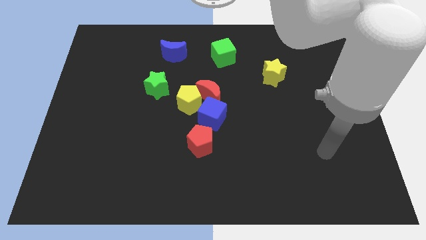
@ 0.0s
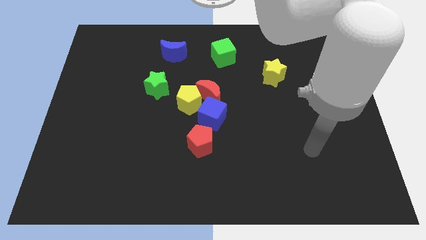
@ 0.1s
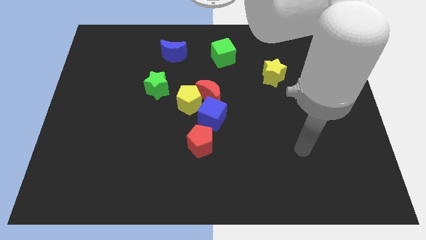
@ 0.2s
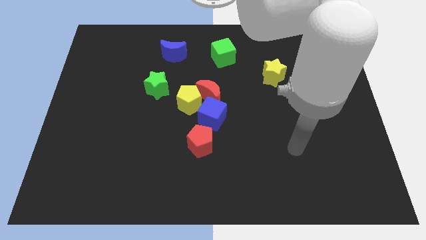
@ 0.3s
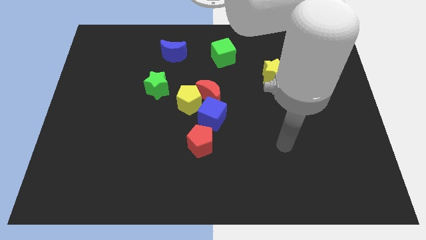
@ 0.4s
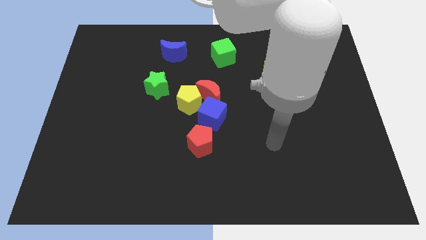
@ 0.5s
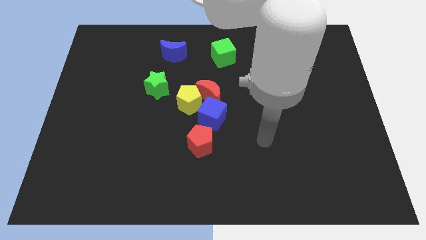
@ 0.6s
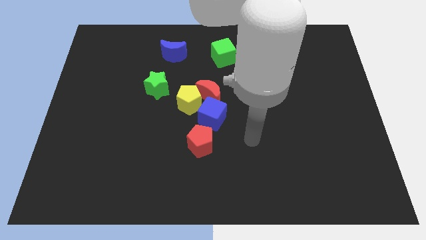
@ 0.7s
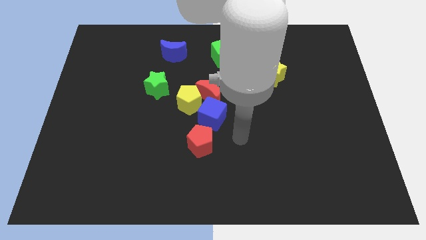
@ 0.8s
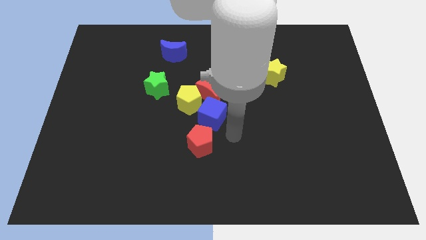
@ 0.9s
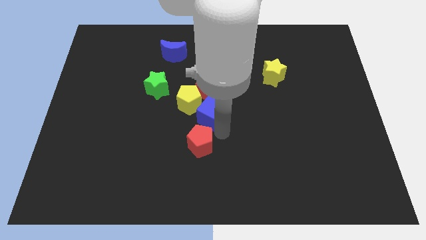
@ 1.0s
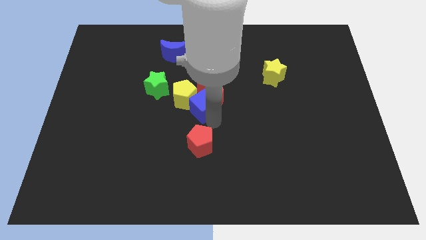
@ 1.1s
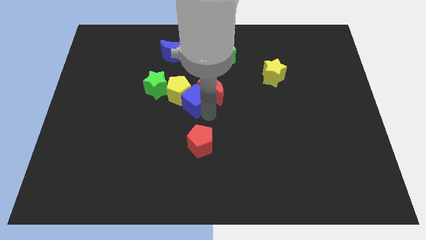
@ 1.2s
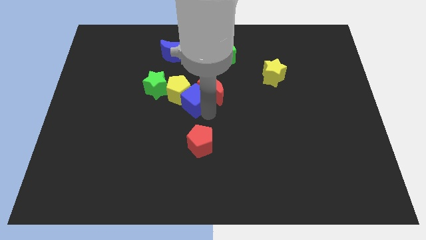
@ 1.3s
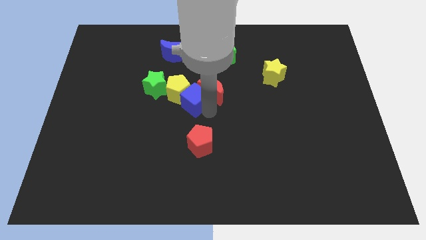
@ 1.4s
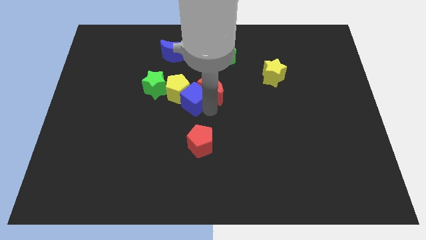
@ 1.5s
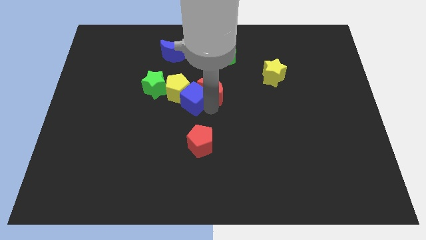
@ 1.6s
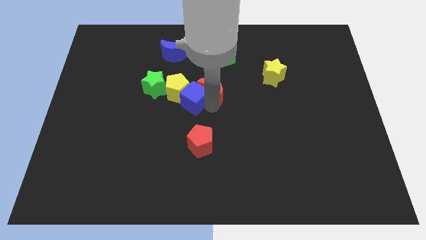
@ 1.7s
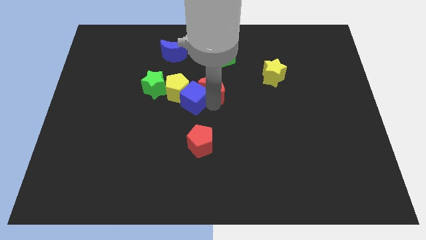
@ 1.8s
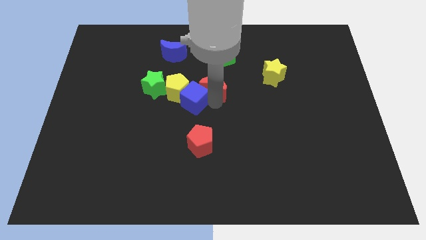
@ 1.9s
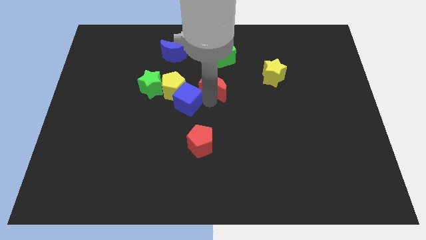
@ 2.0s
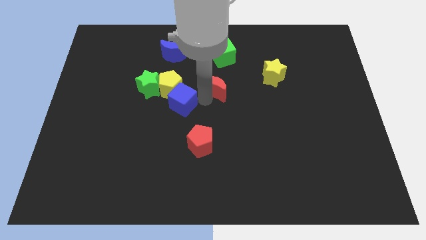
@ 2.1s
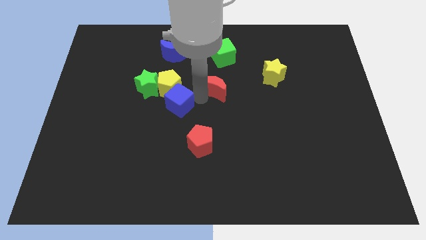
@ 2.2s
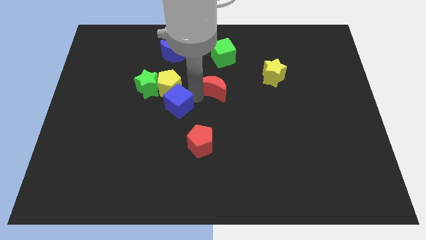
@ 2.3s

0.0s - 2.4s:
separate the red moon from the yellow pentagon and blue cube

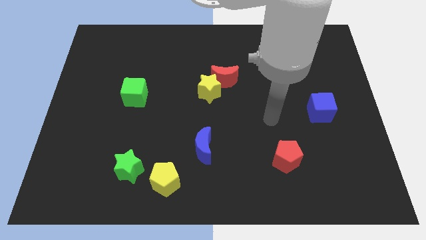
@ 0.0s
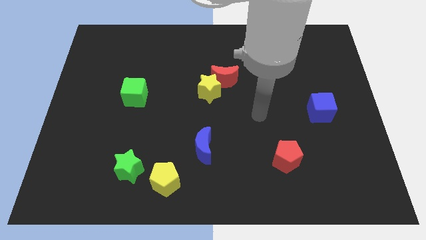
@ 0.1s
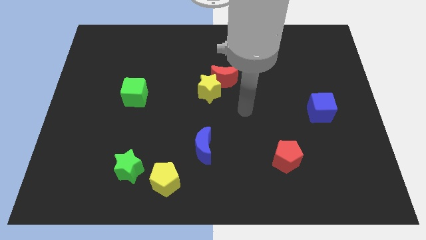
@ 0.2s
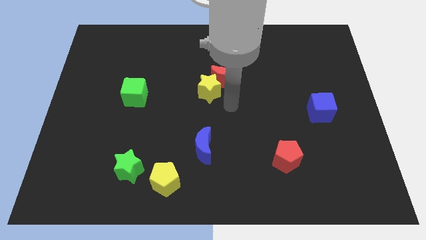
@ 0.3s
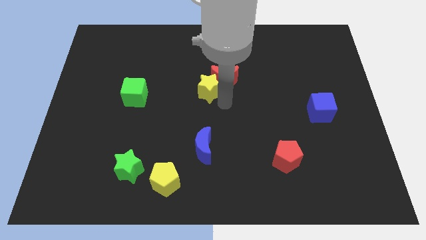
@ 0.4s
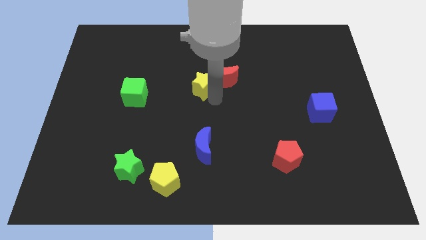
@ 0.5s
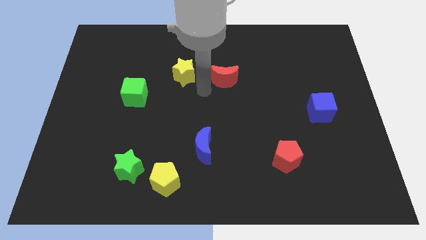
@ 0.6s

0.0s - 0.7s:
separate the red moon from the yellow star

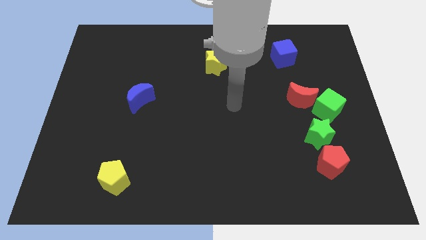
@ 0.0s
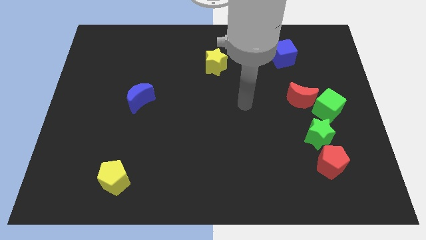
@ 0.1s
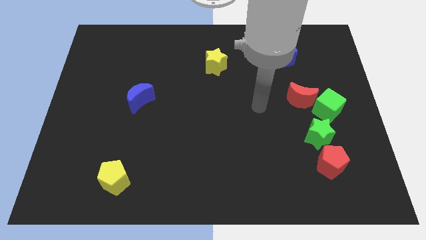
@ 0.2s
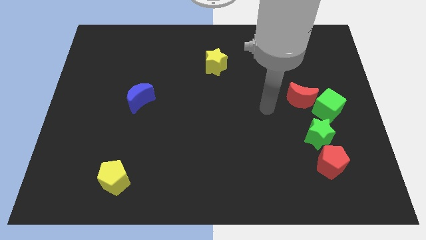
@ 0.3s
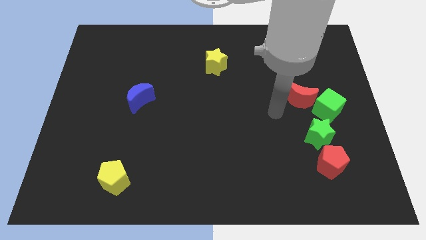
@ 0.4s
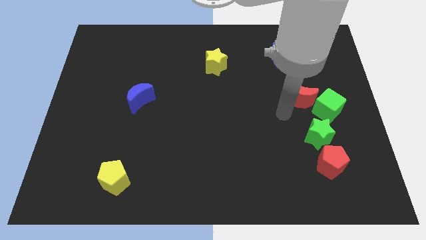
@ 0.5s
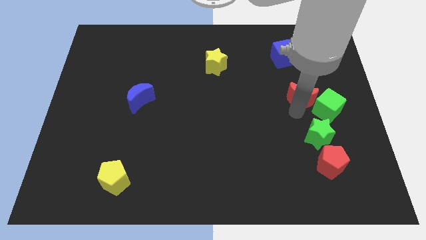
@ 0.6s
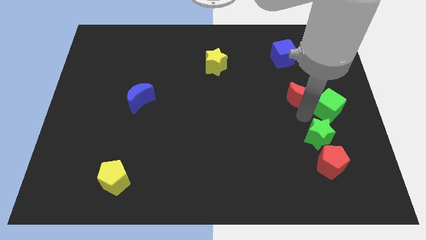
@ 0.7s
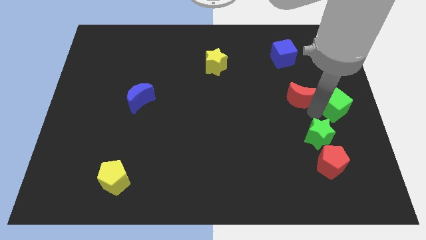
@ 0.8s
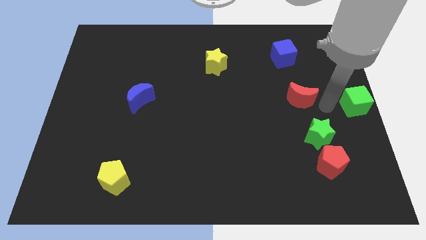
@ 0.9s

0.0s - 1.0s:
pull the red moon apart from the green cube

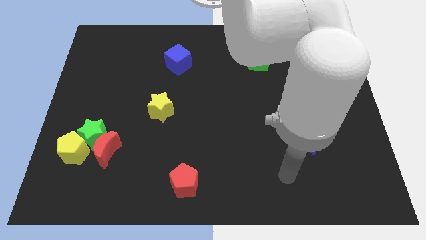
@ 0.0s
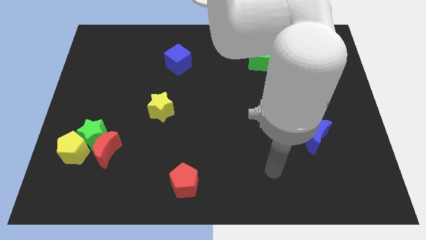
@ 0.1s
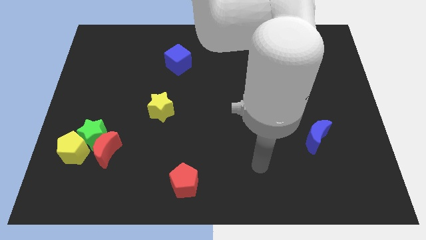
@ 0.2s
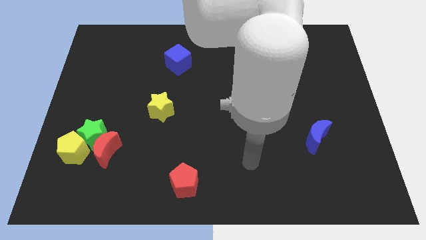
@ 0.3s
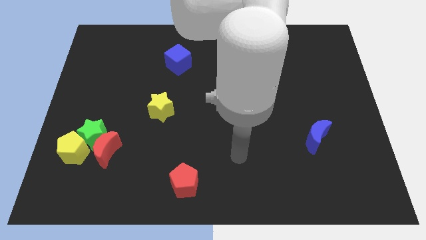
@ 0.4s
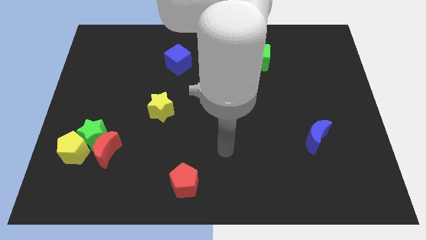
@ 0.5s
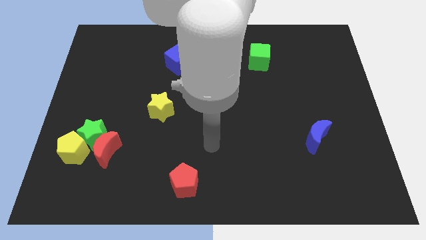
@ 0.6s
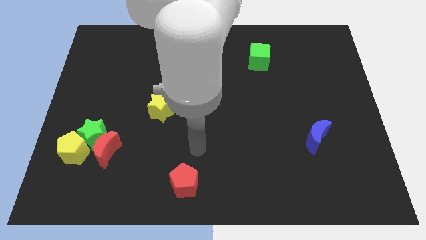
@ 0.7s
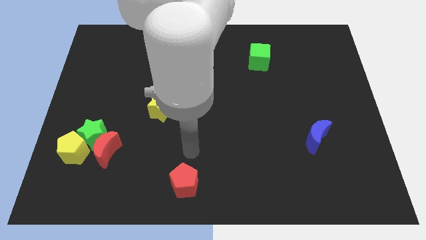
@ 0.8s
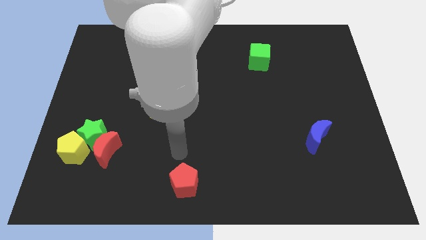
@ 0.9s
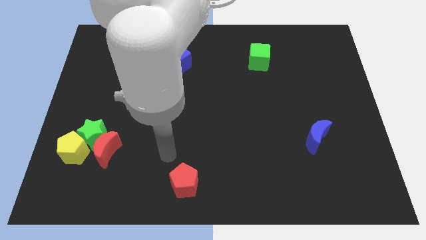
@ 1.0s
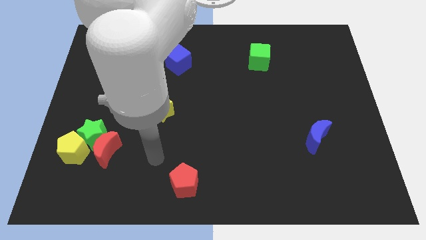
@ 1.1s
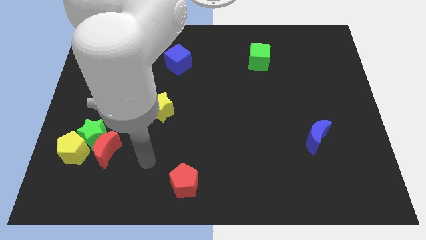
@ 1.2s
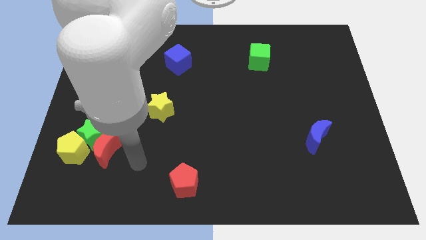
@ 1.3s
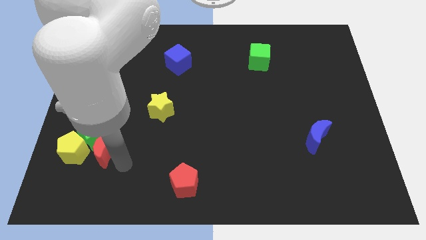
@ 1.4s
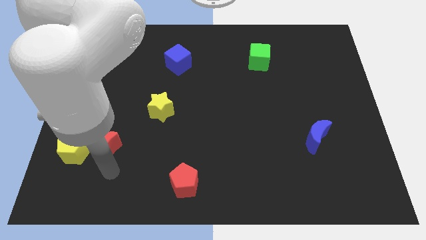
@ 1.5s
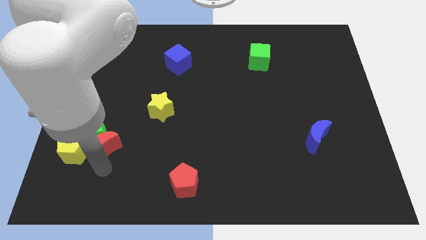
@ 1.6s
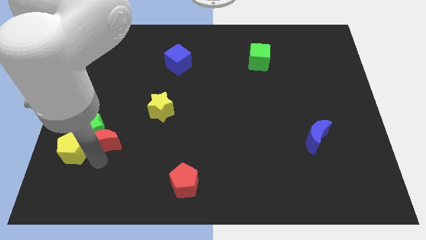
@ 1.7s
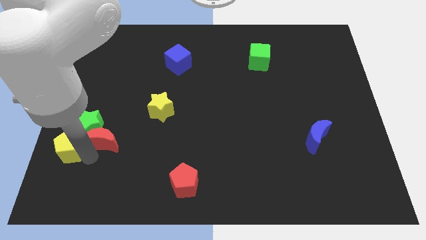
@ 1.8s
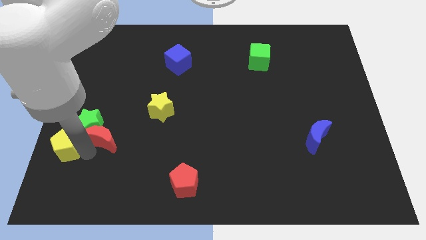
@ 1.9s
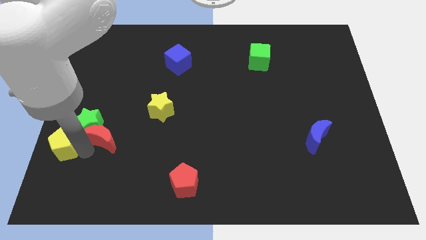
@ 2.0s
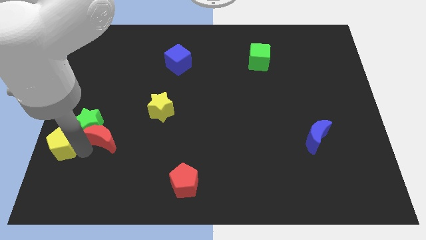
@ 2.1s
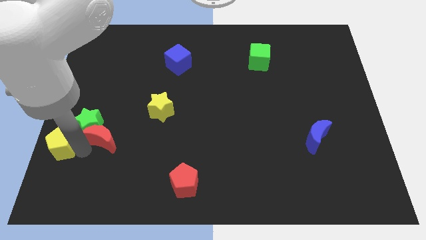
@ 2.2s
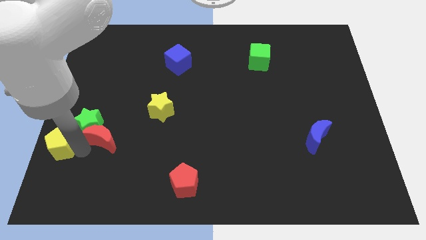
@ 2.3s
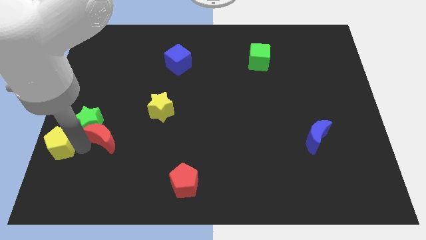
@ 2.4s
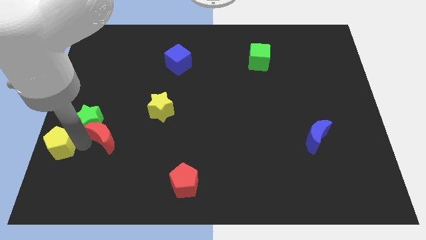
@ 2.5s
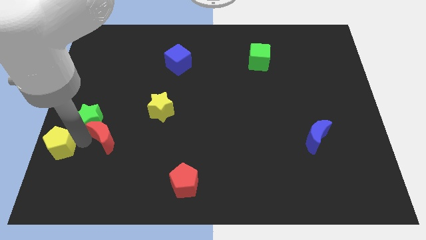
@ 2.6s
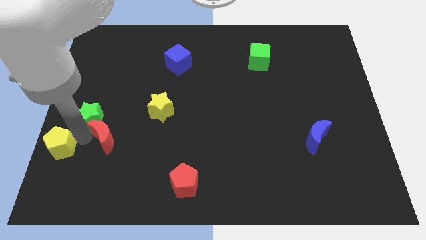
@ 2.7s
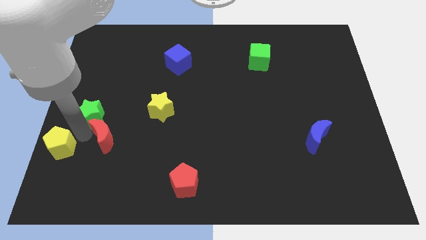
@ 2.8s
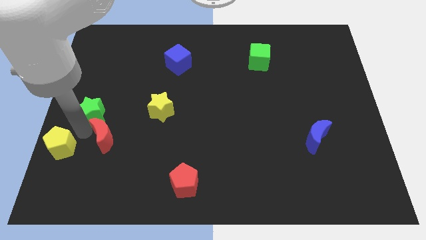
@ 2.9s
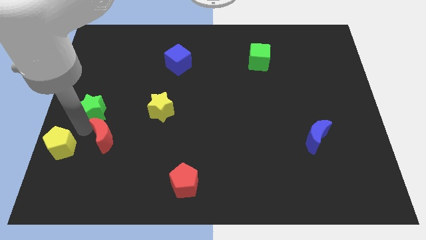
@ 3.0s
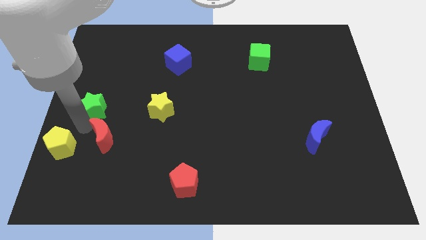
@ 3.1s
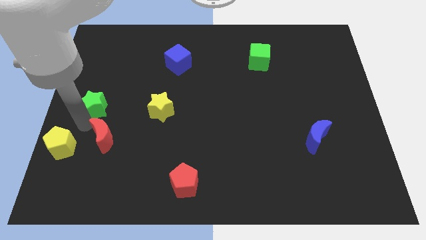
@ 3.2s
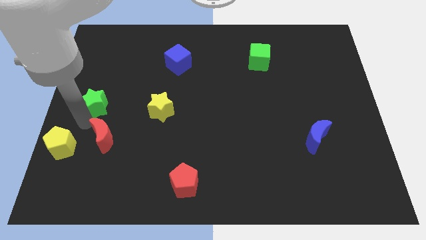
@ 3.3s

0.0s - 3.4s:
pull the green star apart from the red moon and yellow pentagon

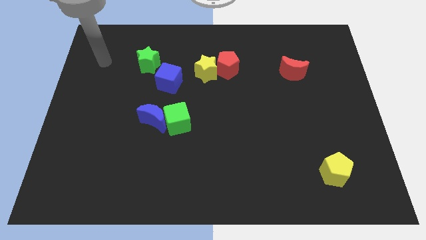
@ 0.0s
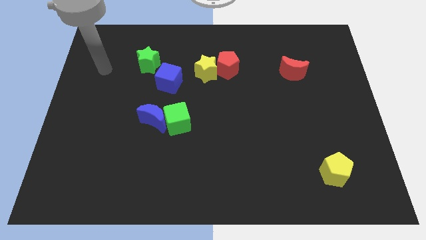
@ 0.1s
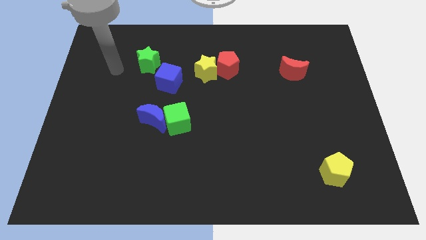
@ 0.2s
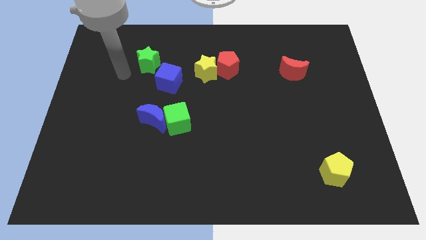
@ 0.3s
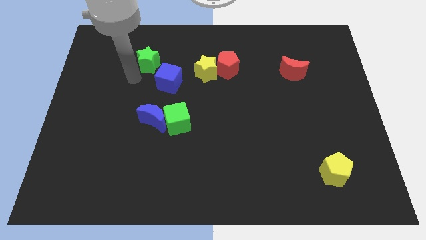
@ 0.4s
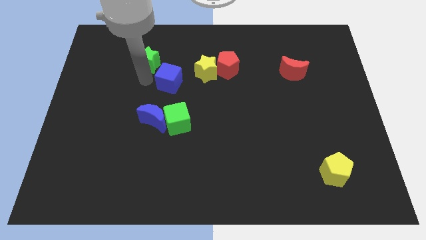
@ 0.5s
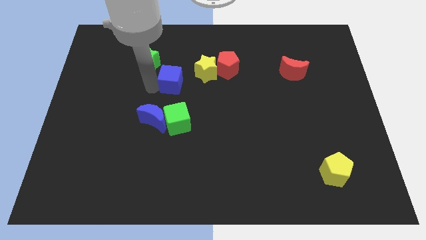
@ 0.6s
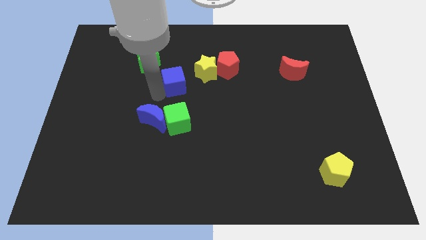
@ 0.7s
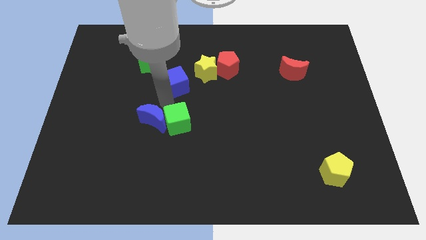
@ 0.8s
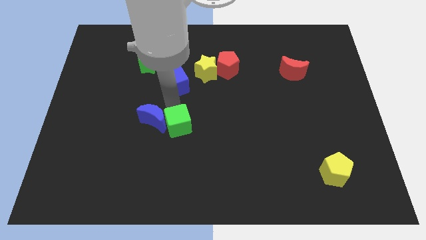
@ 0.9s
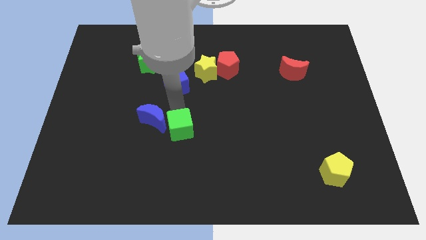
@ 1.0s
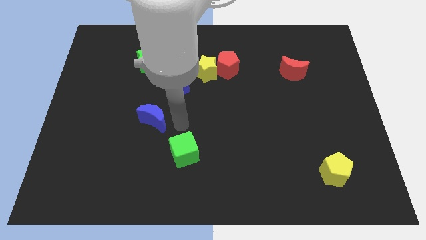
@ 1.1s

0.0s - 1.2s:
pull the blue moon apart from the green cube

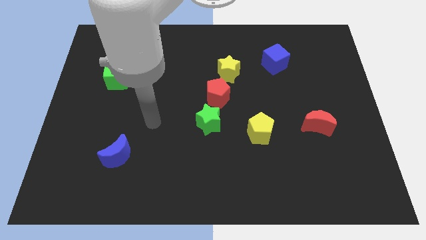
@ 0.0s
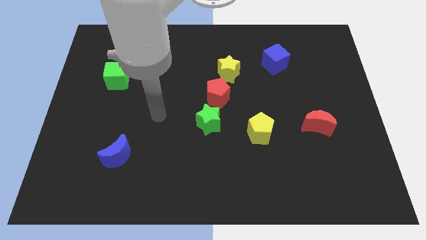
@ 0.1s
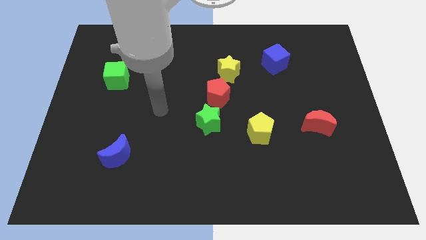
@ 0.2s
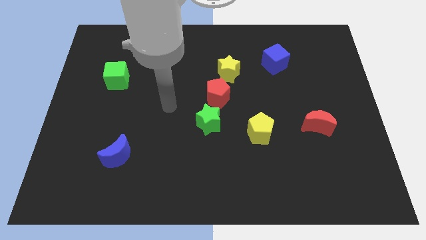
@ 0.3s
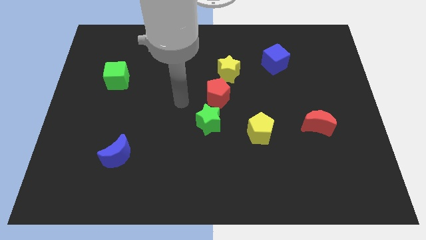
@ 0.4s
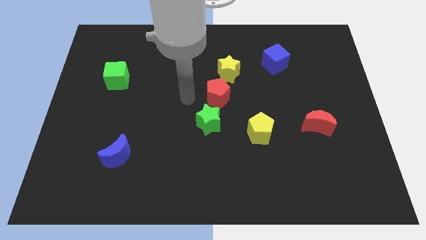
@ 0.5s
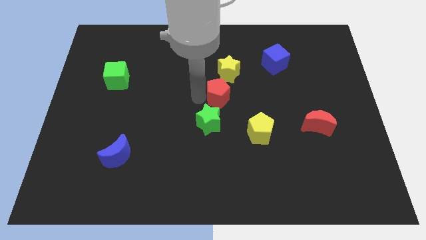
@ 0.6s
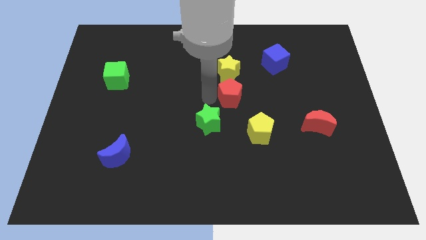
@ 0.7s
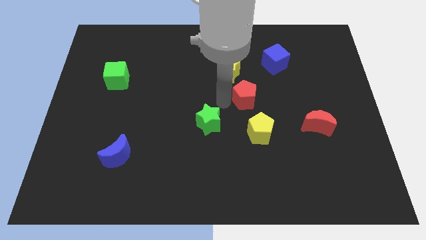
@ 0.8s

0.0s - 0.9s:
pull the green star apart from the red pentagon
